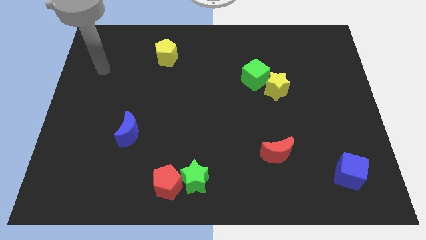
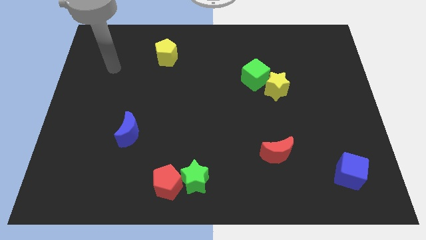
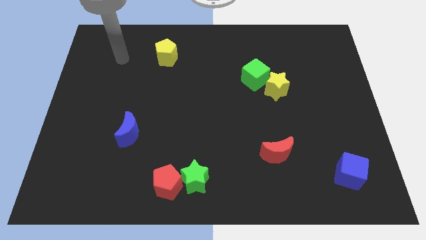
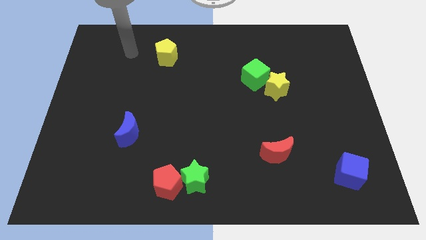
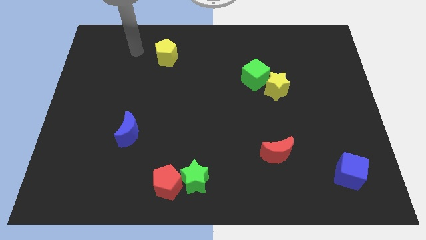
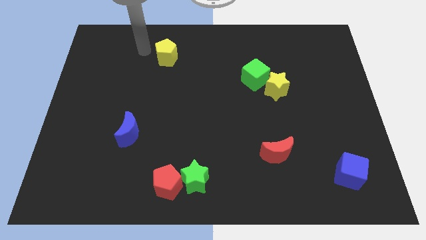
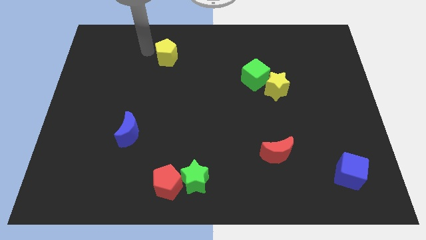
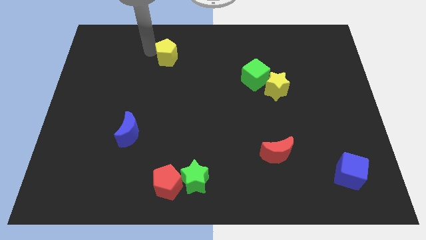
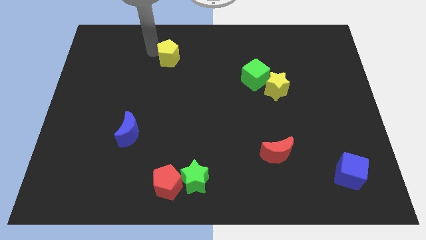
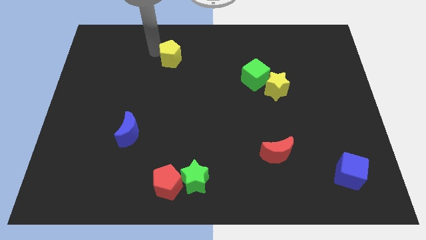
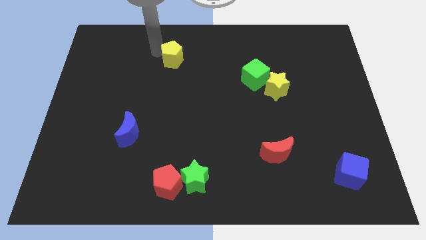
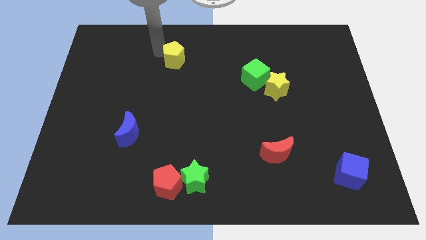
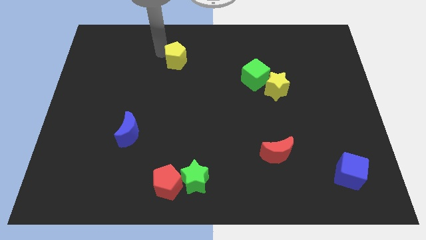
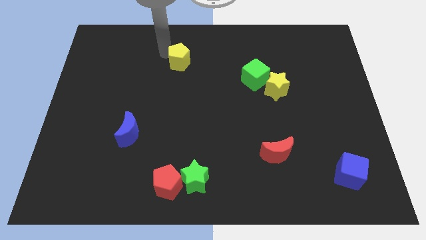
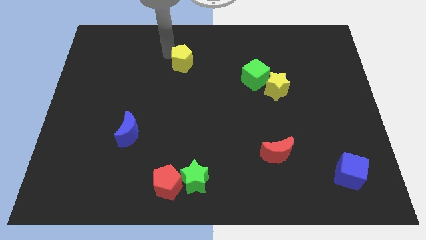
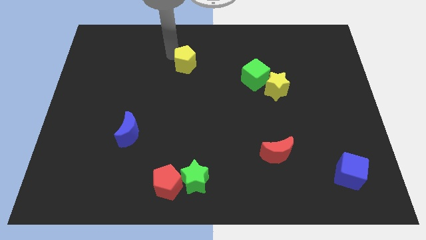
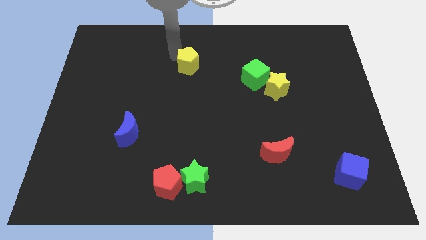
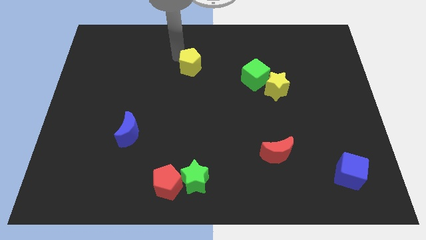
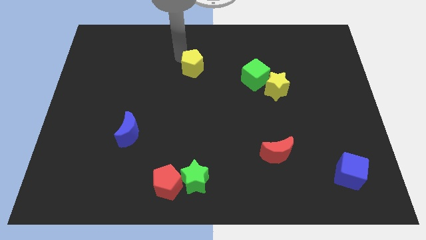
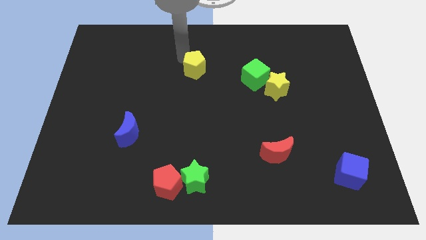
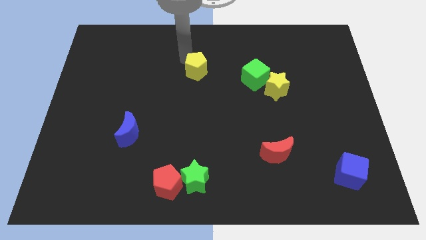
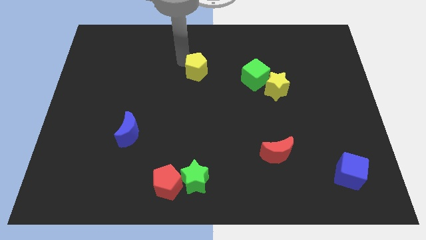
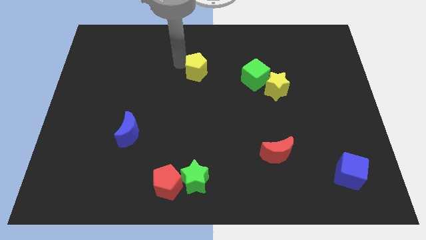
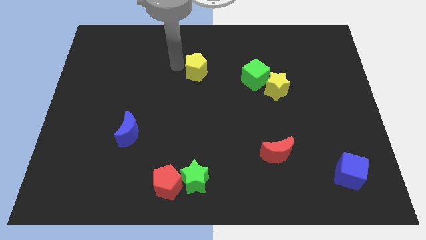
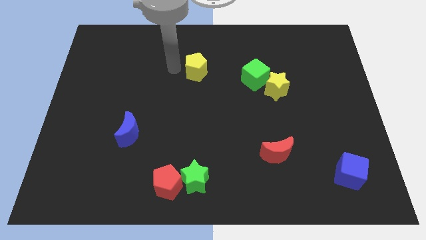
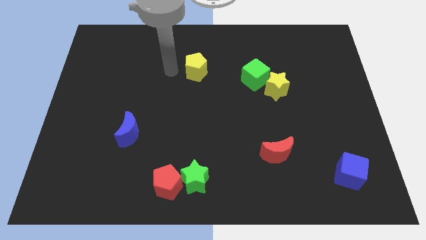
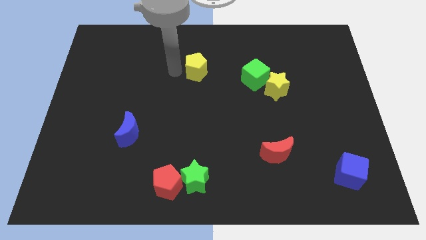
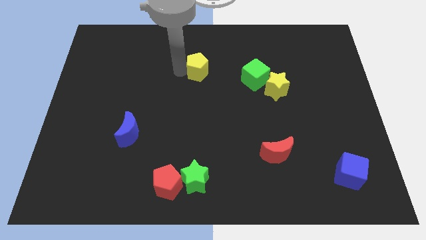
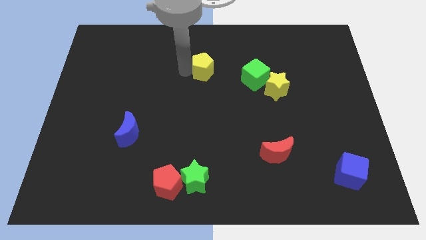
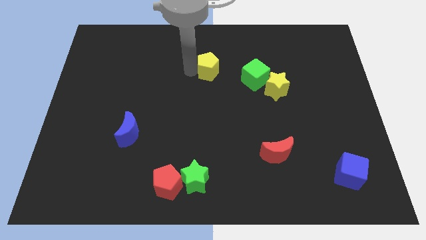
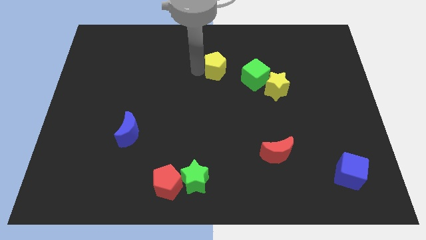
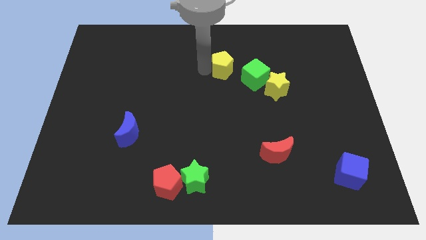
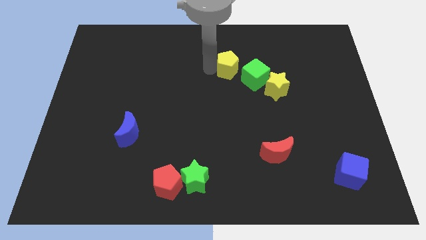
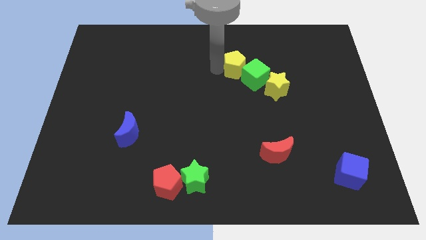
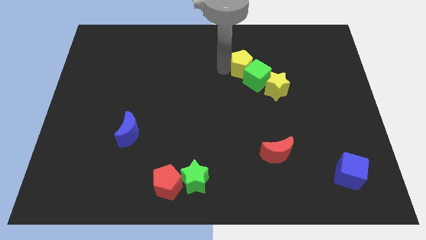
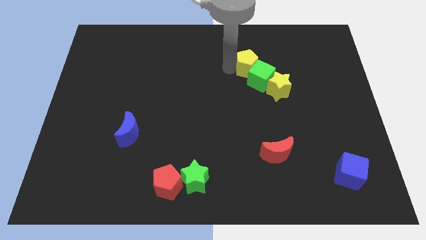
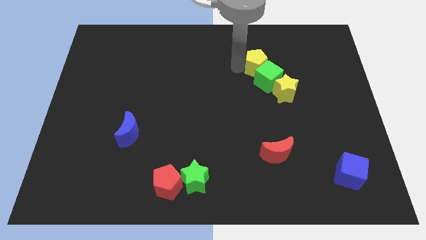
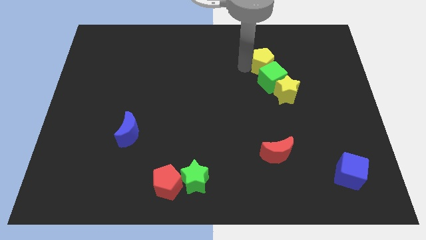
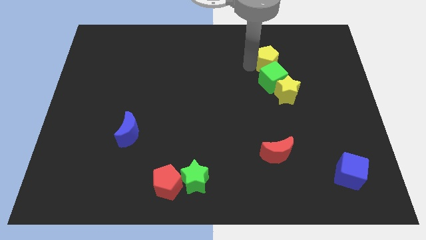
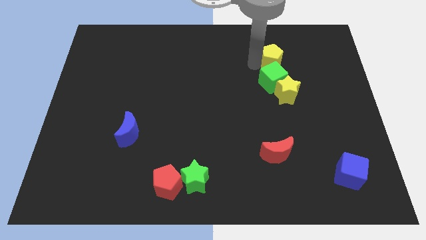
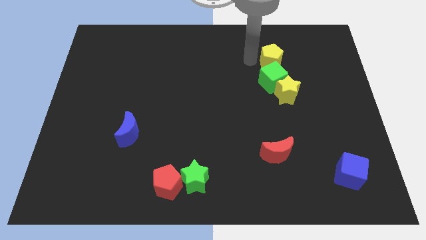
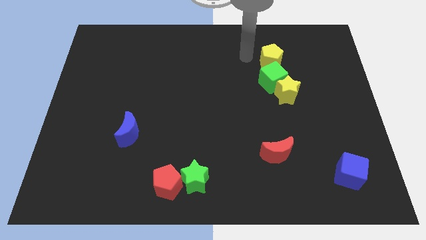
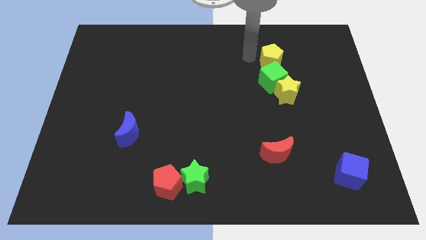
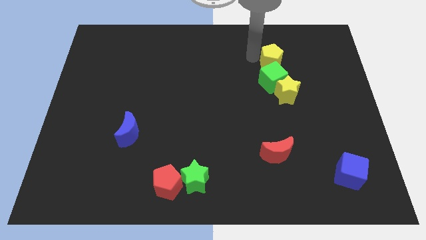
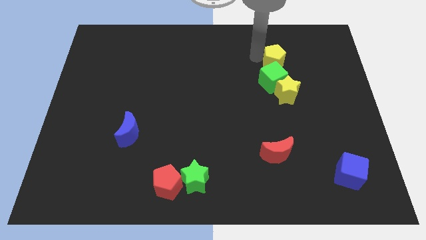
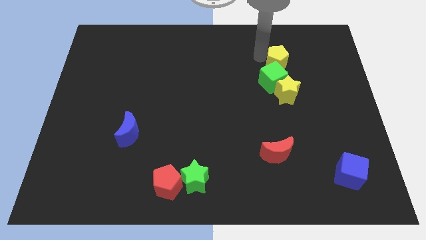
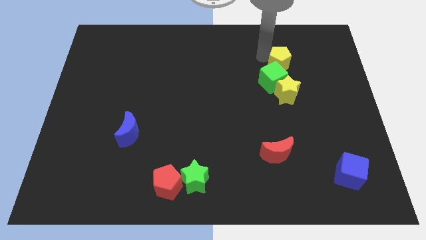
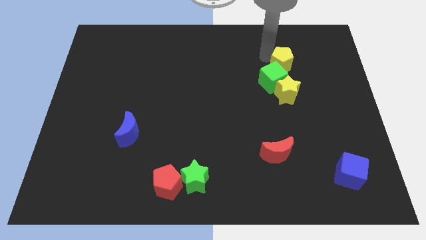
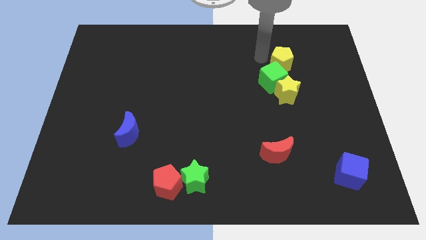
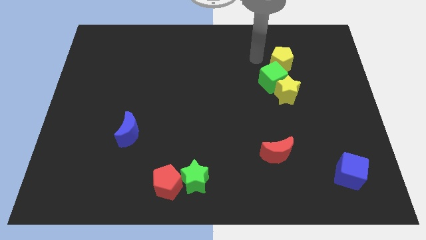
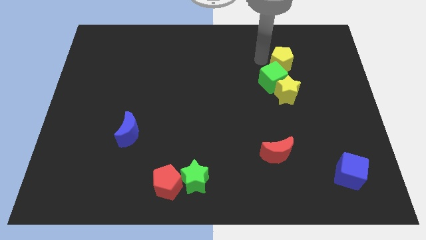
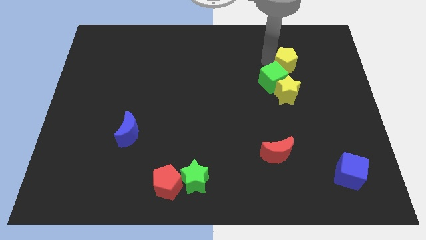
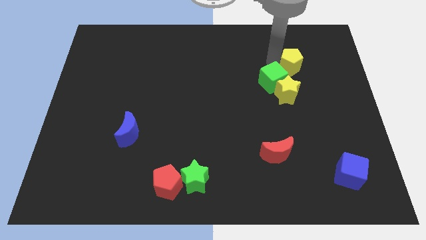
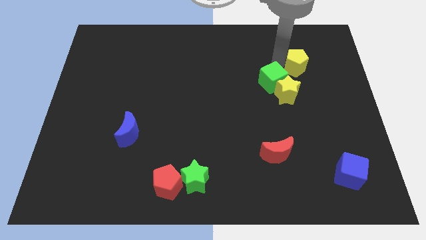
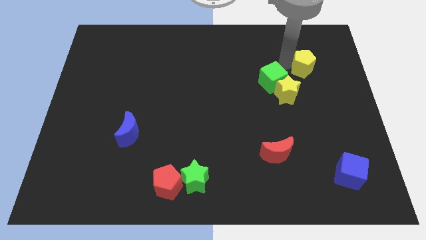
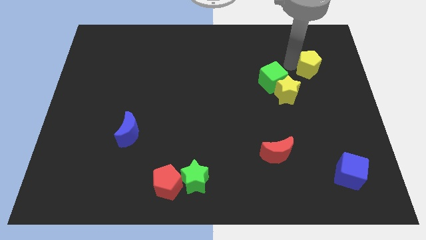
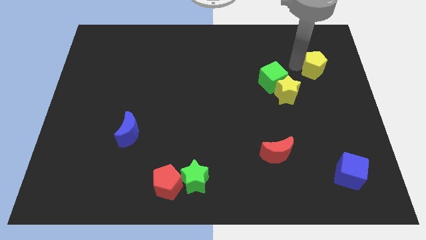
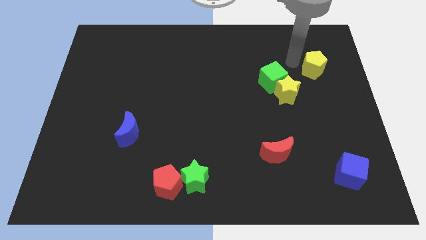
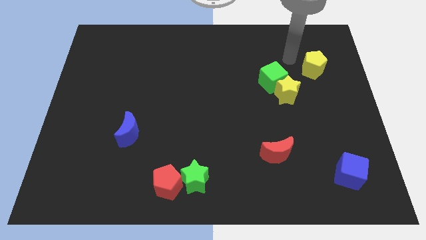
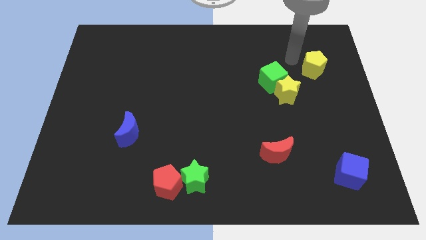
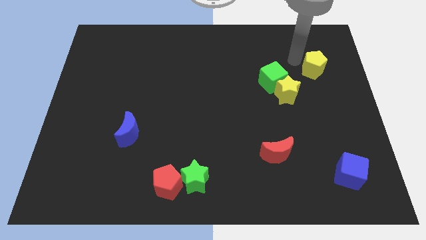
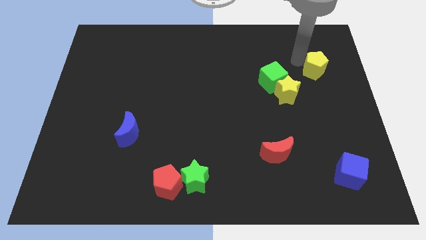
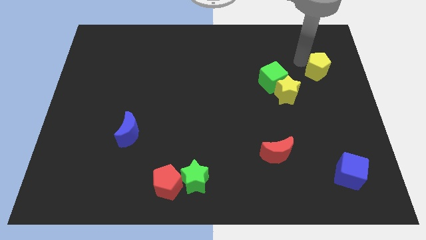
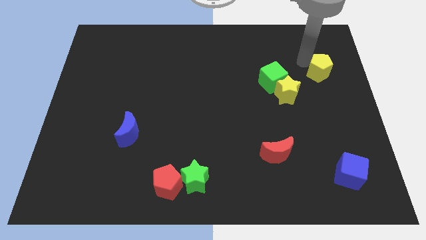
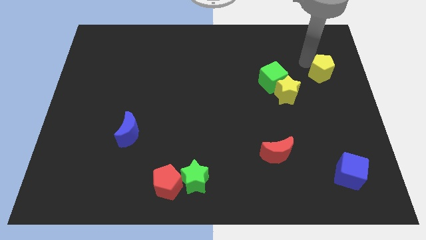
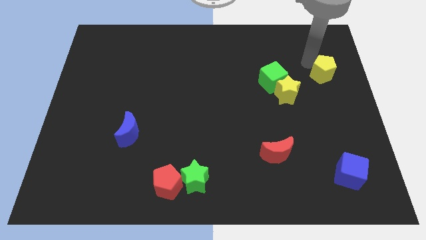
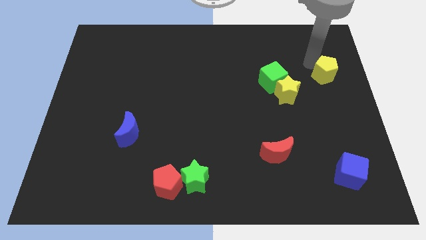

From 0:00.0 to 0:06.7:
move the yellow pentagon to the right side
